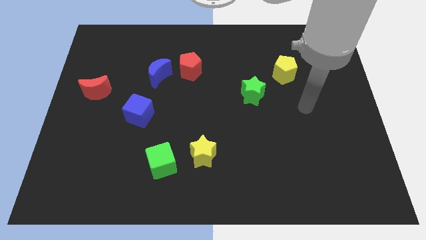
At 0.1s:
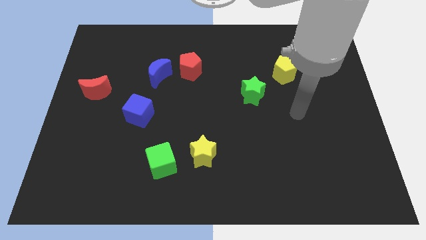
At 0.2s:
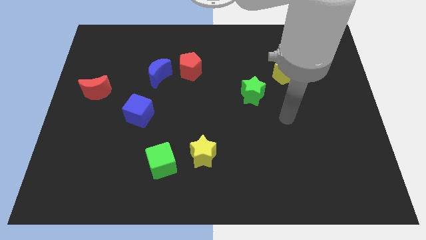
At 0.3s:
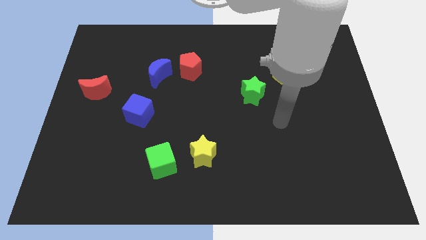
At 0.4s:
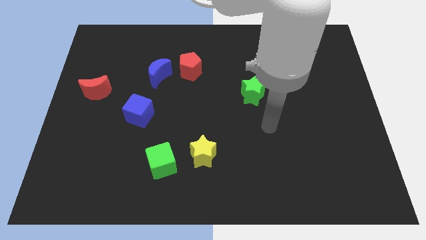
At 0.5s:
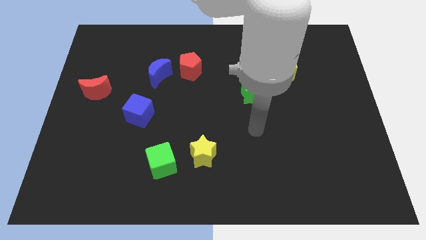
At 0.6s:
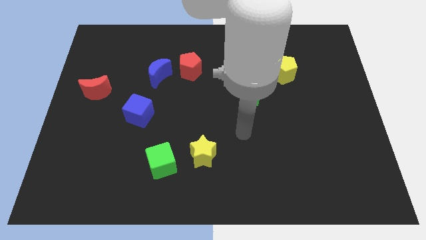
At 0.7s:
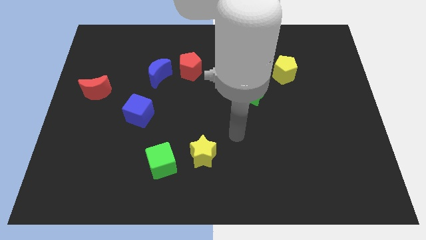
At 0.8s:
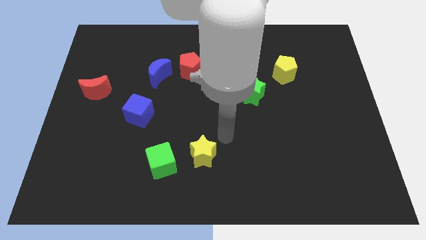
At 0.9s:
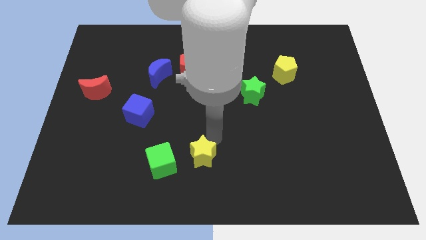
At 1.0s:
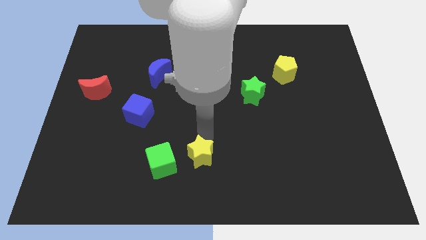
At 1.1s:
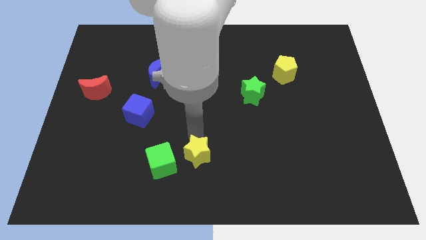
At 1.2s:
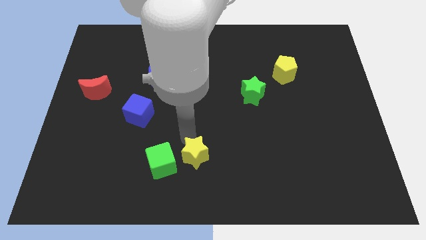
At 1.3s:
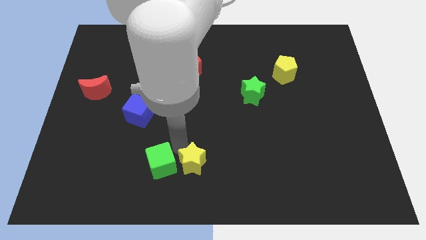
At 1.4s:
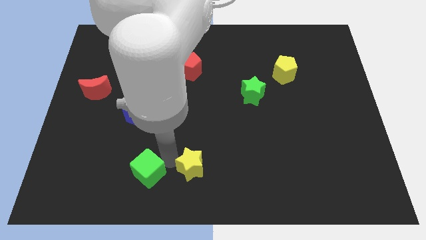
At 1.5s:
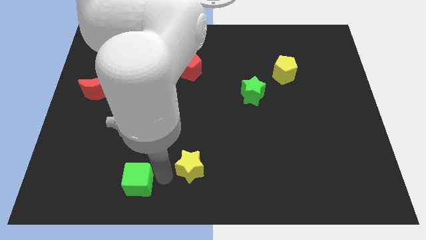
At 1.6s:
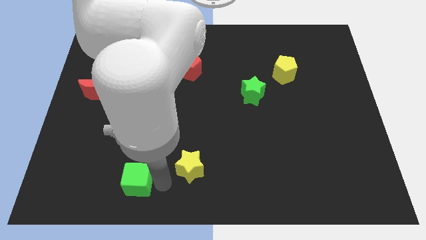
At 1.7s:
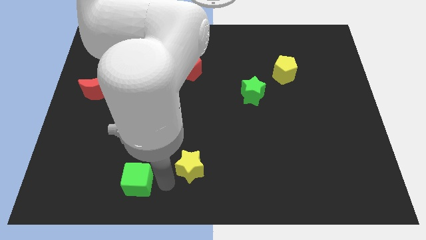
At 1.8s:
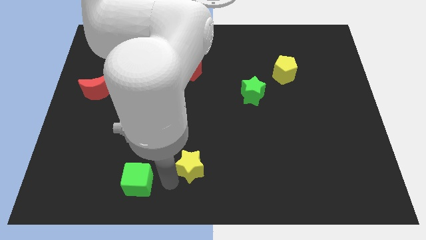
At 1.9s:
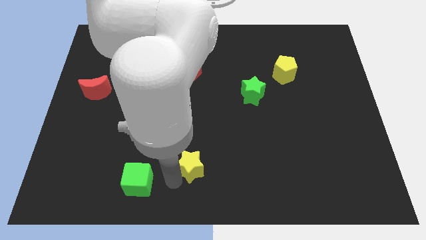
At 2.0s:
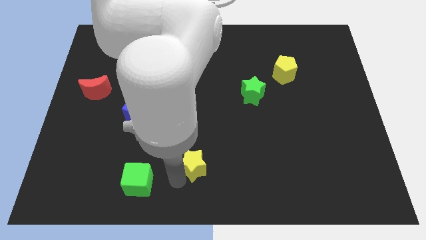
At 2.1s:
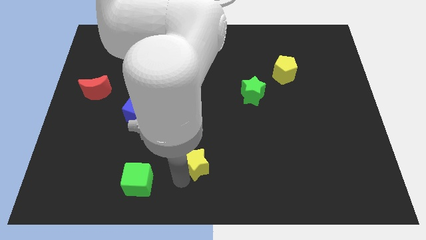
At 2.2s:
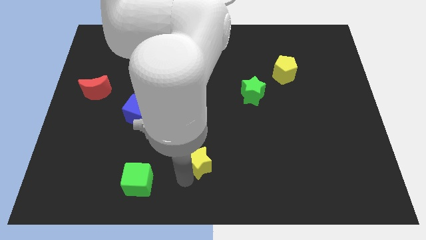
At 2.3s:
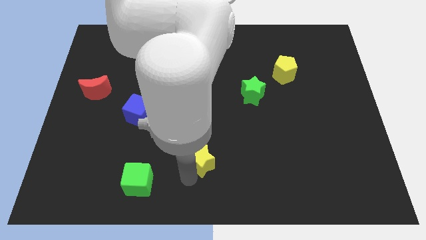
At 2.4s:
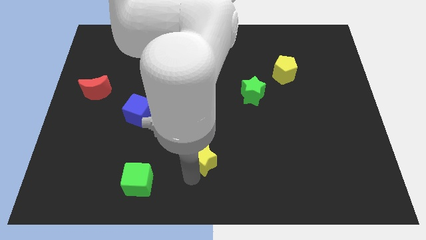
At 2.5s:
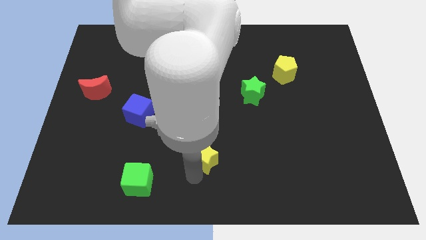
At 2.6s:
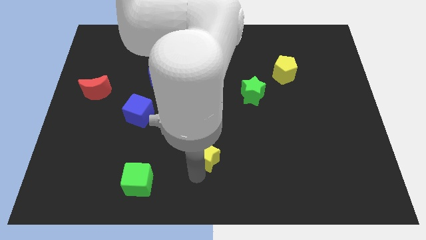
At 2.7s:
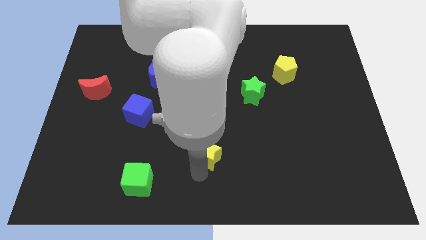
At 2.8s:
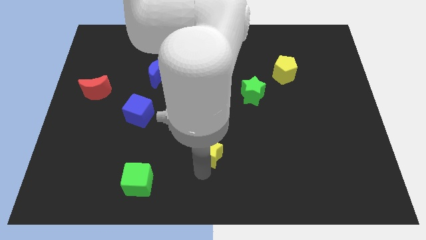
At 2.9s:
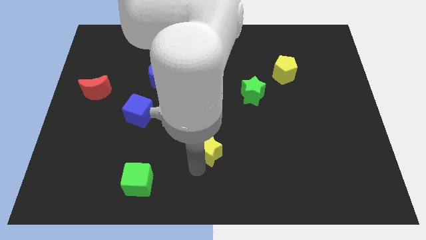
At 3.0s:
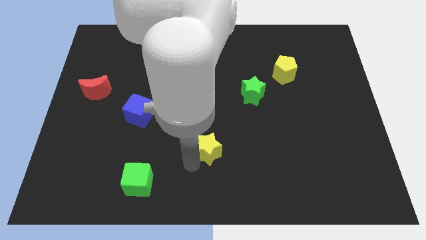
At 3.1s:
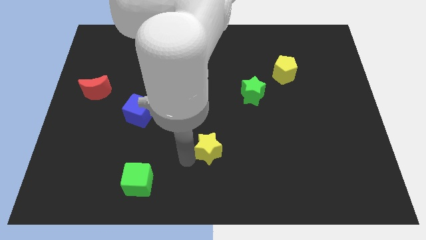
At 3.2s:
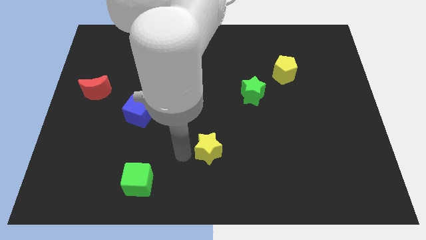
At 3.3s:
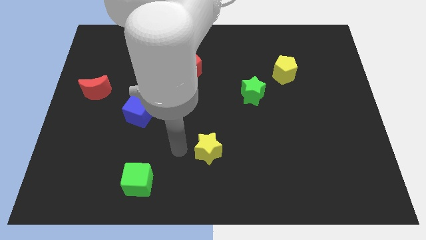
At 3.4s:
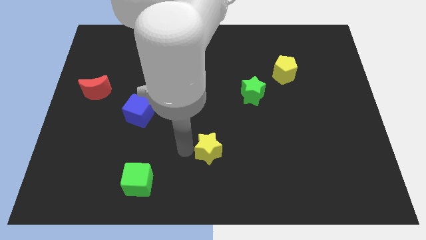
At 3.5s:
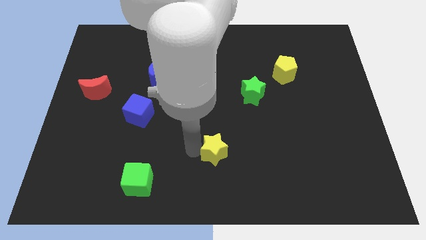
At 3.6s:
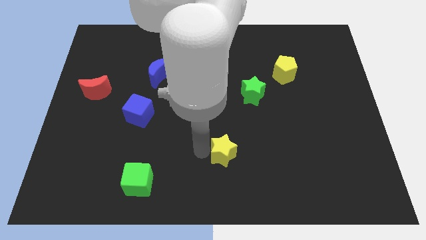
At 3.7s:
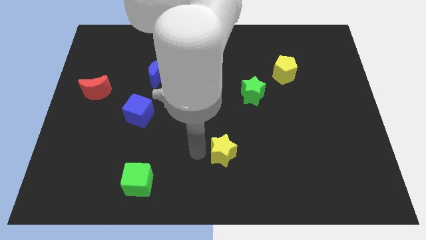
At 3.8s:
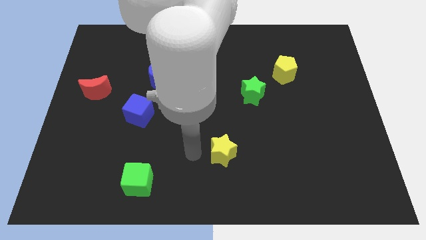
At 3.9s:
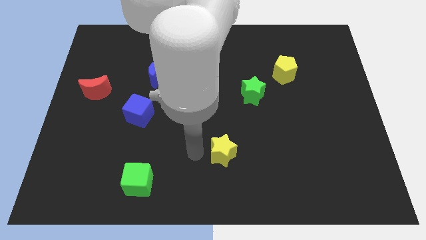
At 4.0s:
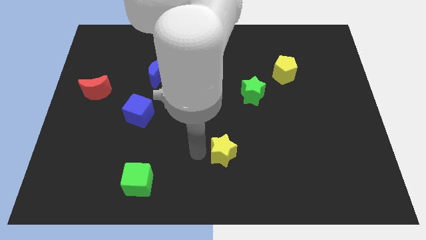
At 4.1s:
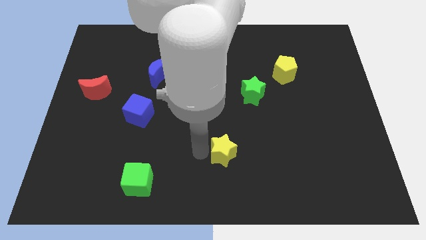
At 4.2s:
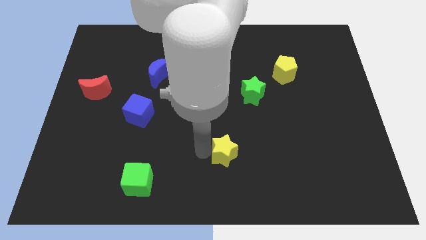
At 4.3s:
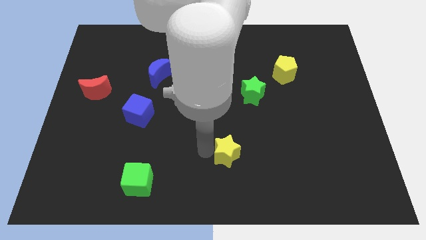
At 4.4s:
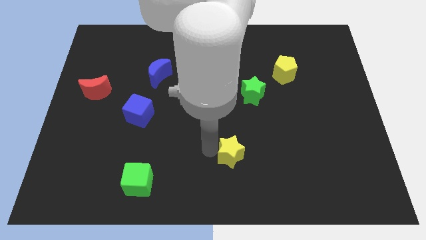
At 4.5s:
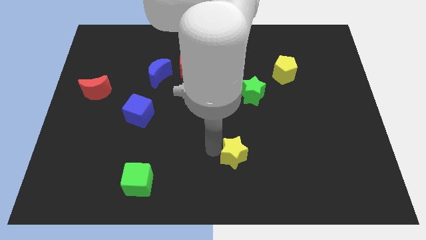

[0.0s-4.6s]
push the yellow star to the right a little

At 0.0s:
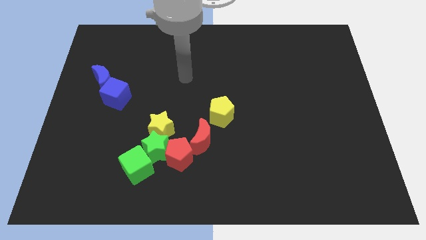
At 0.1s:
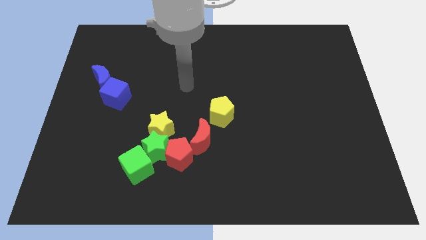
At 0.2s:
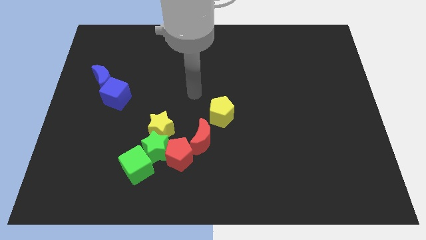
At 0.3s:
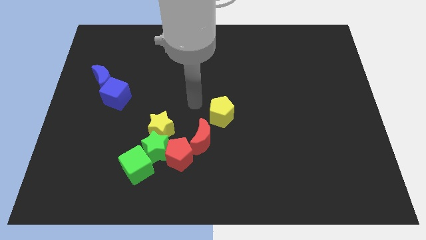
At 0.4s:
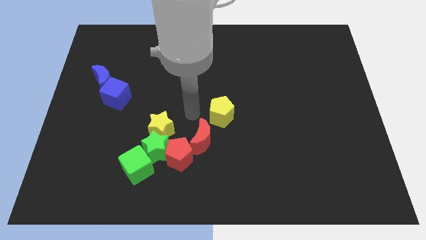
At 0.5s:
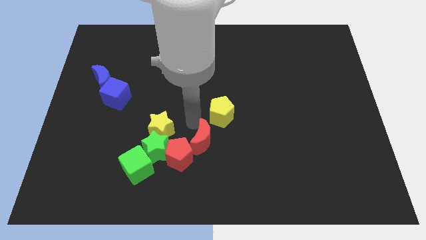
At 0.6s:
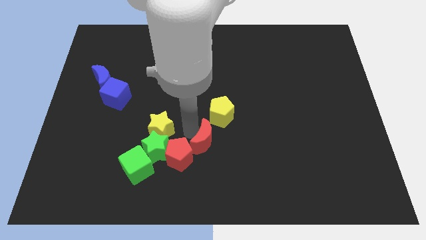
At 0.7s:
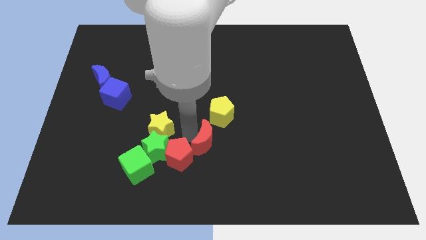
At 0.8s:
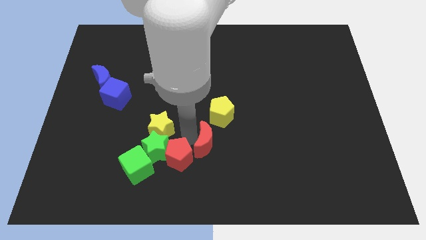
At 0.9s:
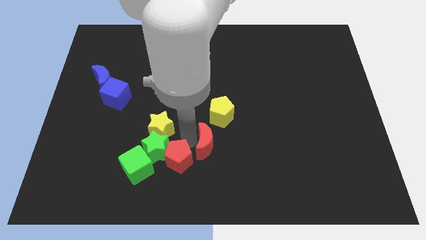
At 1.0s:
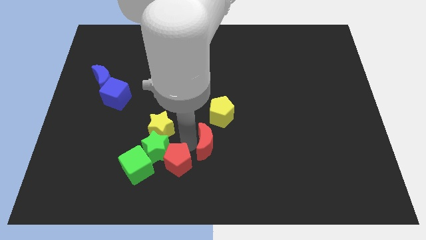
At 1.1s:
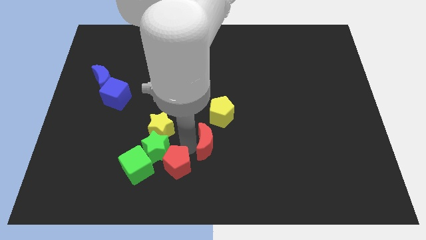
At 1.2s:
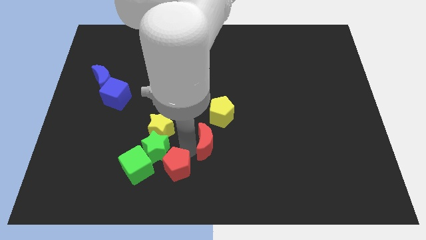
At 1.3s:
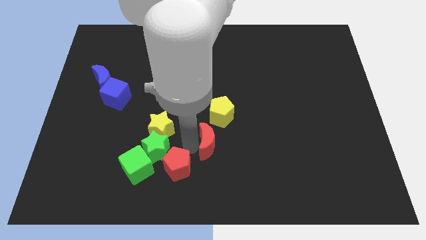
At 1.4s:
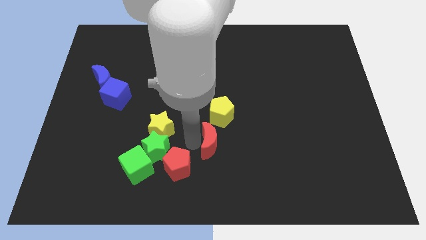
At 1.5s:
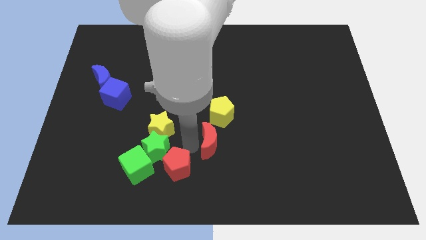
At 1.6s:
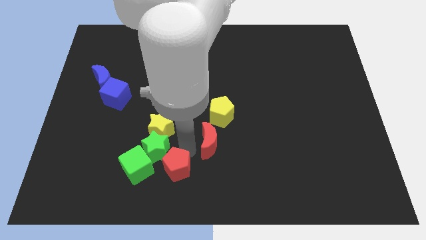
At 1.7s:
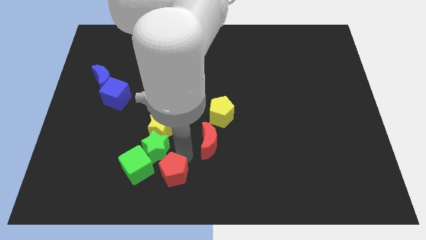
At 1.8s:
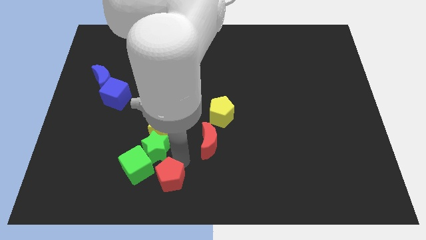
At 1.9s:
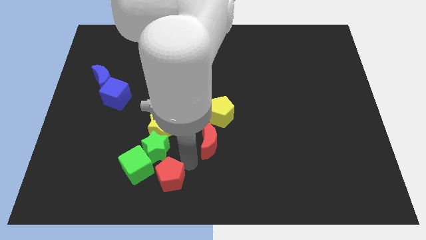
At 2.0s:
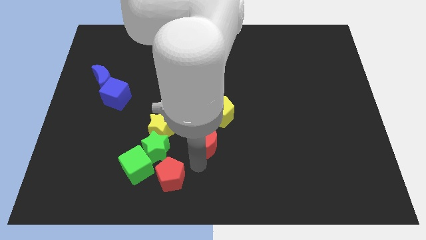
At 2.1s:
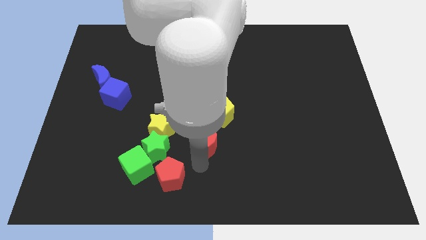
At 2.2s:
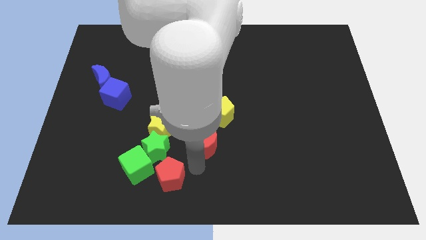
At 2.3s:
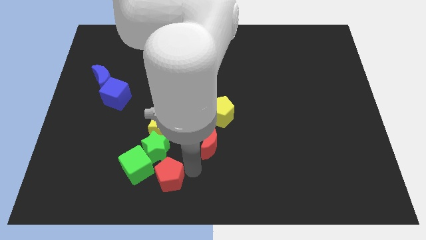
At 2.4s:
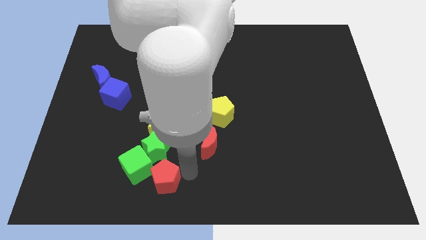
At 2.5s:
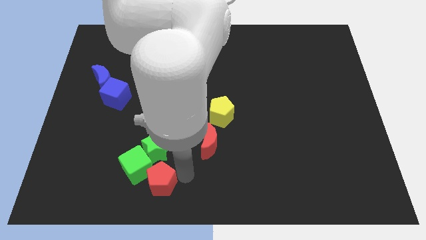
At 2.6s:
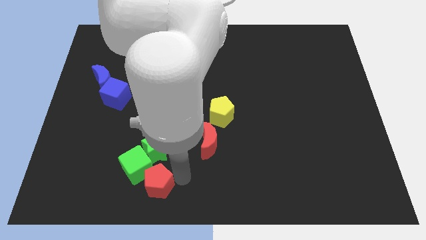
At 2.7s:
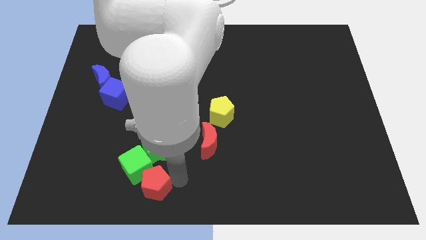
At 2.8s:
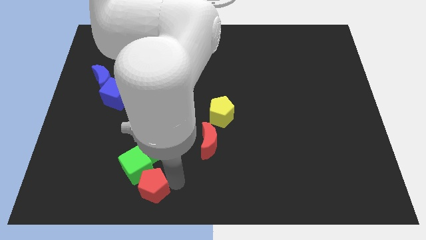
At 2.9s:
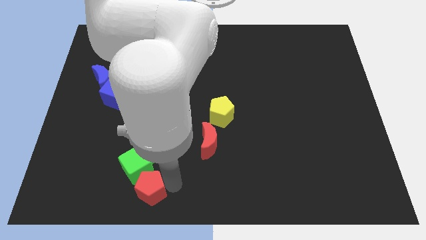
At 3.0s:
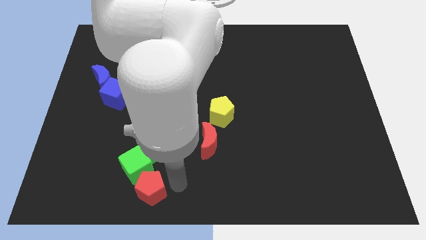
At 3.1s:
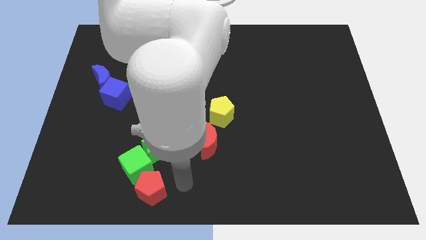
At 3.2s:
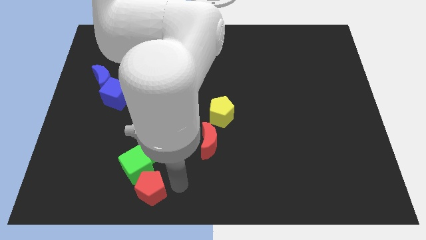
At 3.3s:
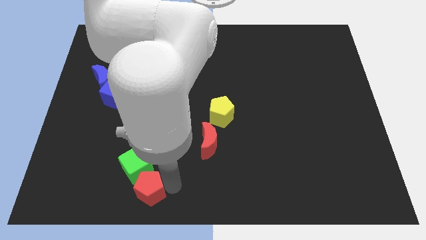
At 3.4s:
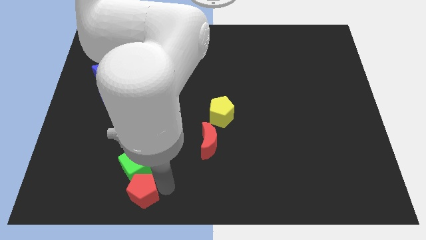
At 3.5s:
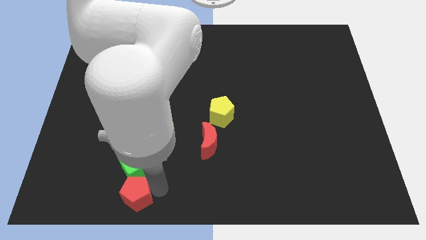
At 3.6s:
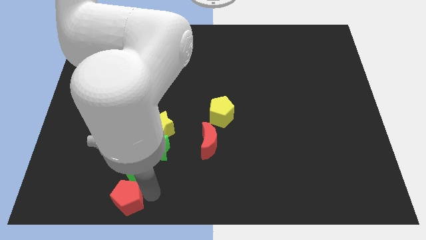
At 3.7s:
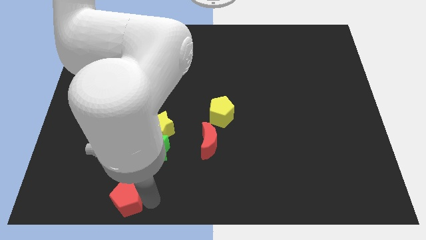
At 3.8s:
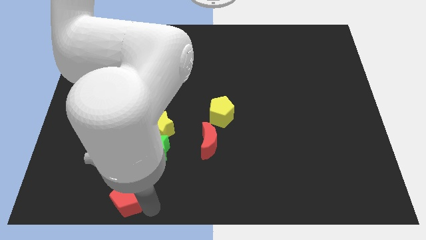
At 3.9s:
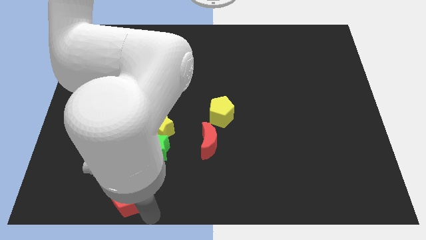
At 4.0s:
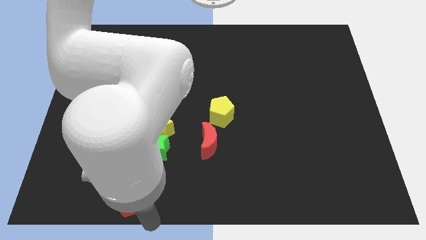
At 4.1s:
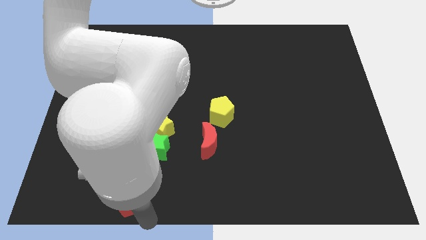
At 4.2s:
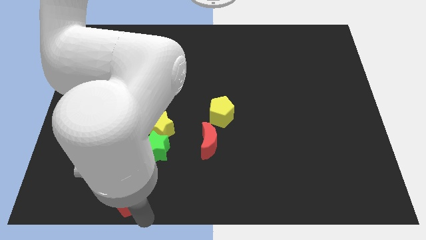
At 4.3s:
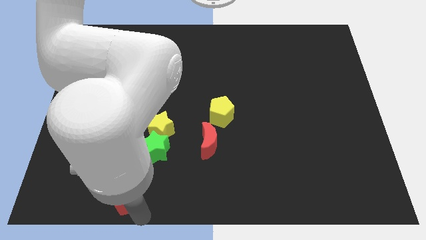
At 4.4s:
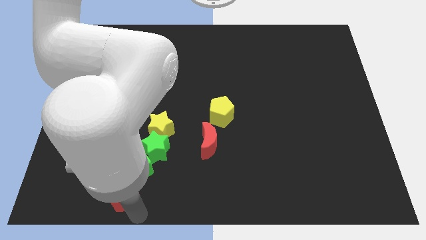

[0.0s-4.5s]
push the red pentagon to the left a little
